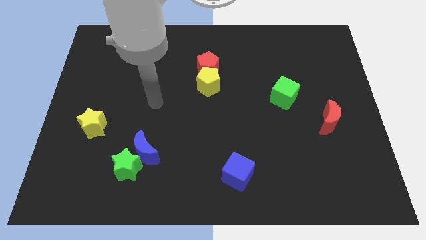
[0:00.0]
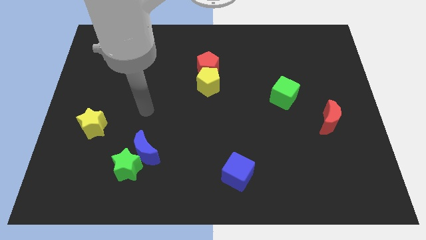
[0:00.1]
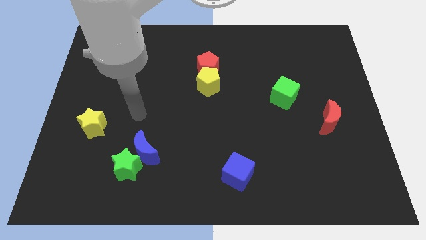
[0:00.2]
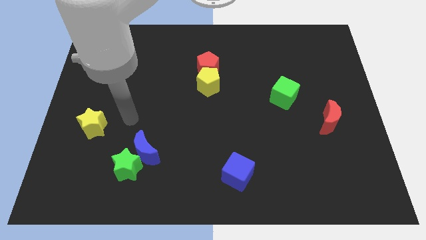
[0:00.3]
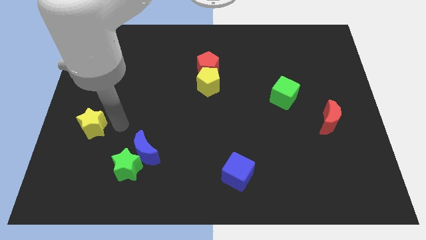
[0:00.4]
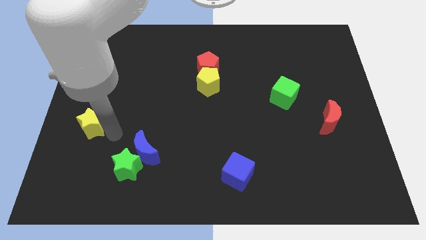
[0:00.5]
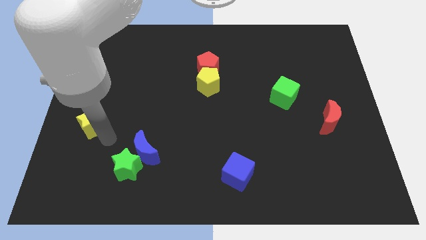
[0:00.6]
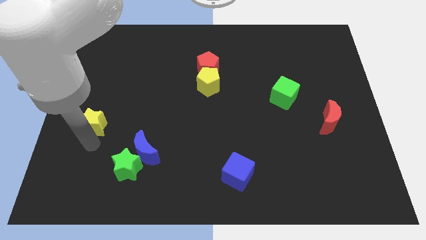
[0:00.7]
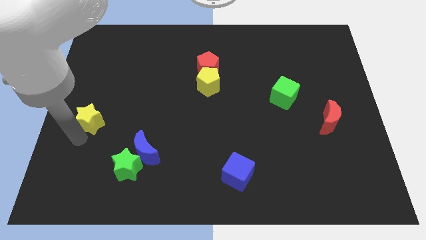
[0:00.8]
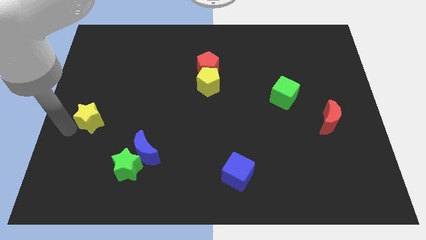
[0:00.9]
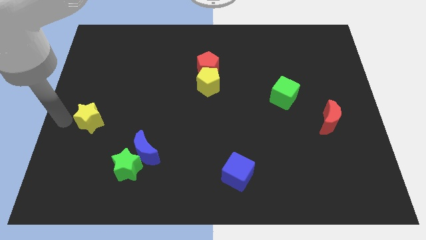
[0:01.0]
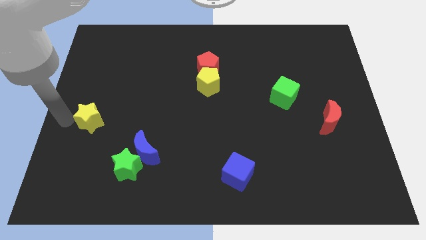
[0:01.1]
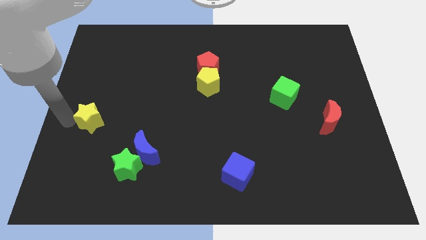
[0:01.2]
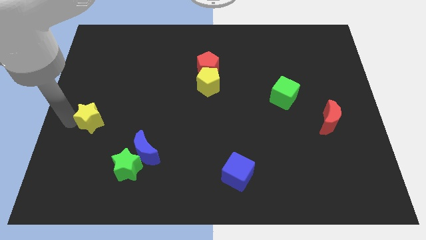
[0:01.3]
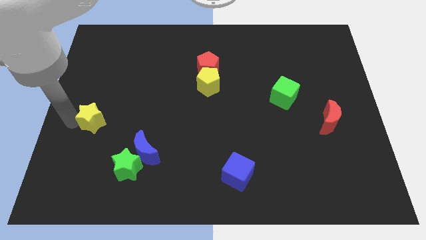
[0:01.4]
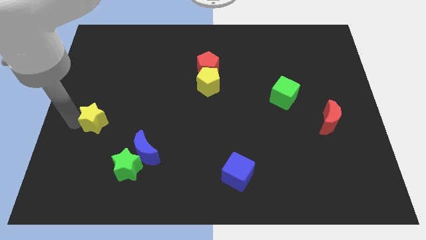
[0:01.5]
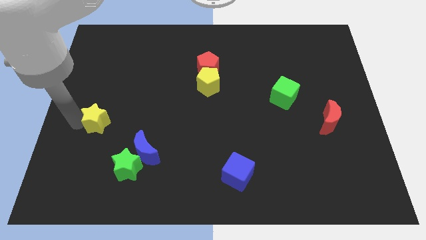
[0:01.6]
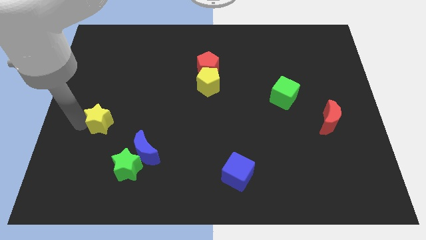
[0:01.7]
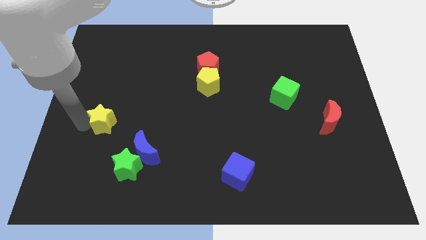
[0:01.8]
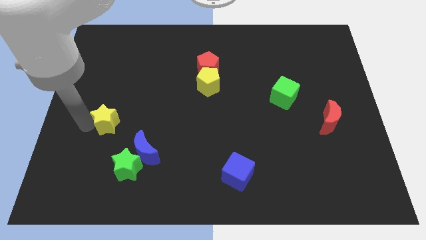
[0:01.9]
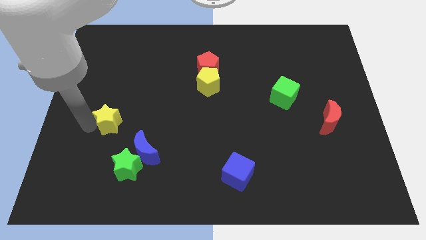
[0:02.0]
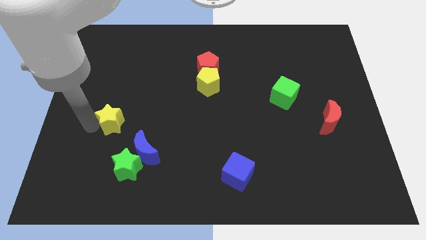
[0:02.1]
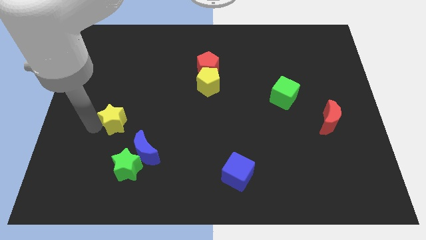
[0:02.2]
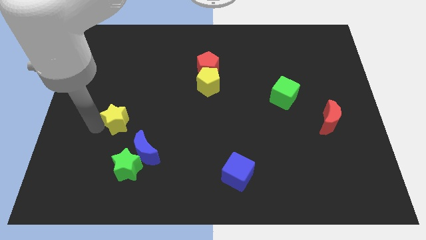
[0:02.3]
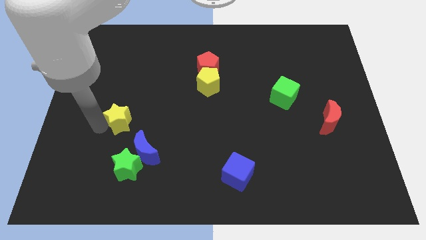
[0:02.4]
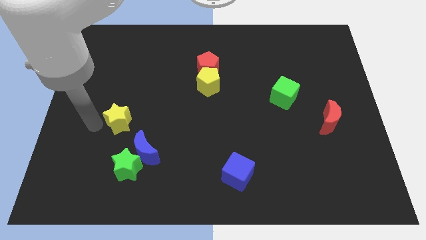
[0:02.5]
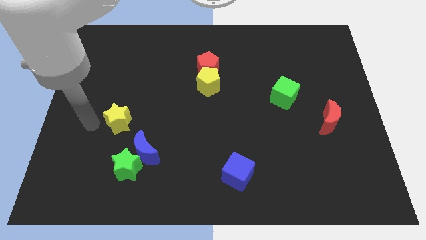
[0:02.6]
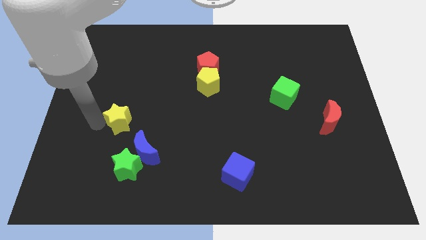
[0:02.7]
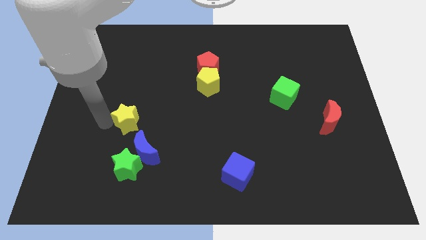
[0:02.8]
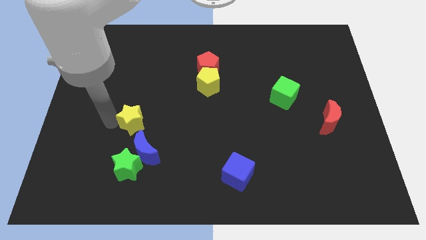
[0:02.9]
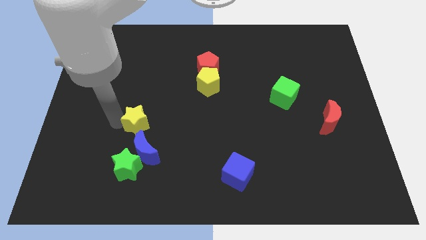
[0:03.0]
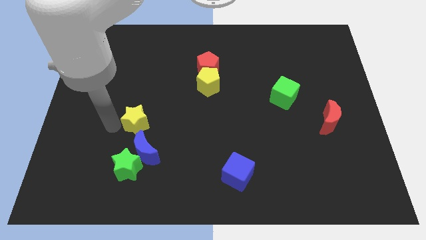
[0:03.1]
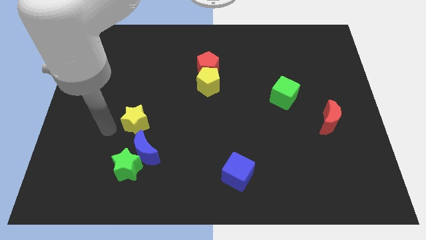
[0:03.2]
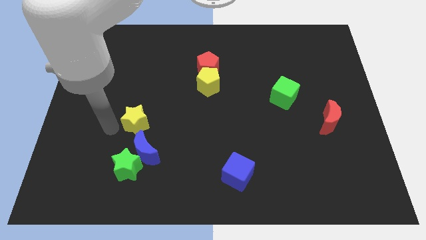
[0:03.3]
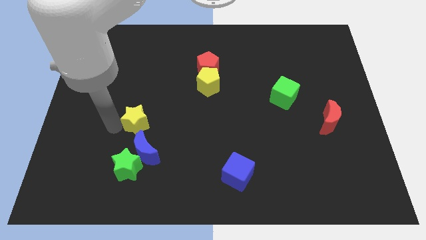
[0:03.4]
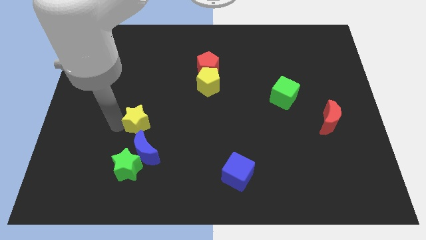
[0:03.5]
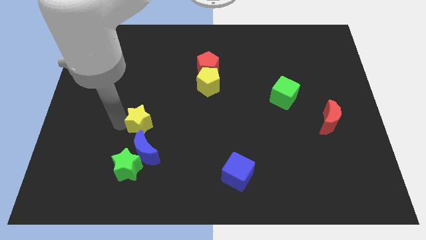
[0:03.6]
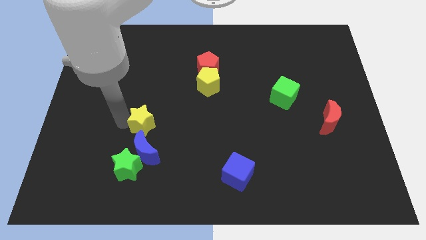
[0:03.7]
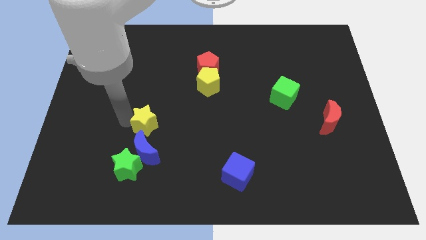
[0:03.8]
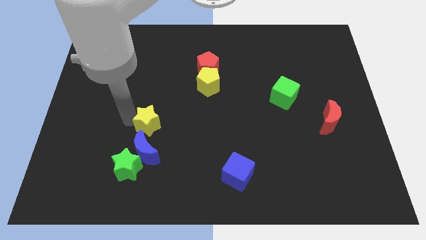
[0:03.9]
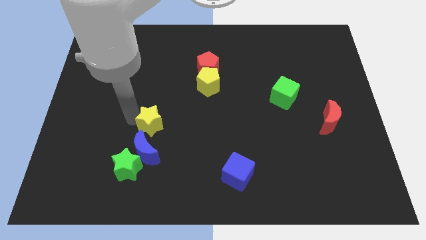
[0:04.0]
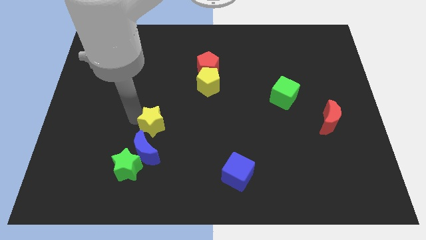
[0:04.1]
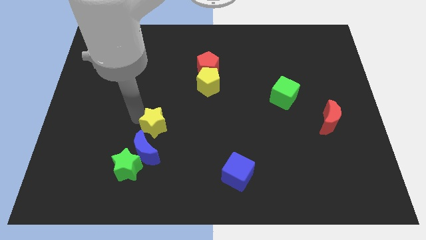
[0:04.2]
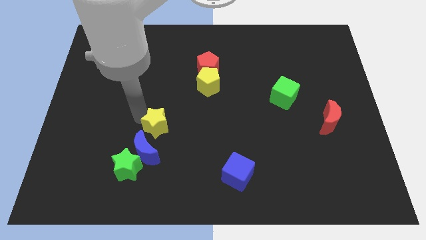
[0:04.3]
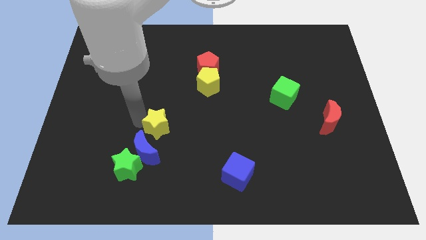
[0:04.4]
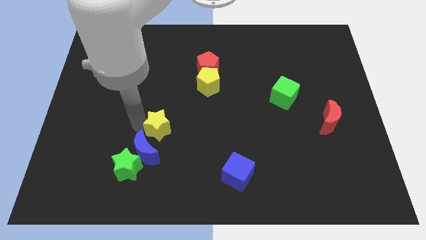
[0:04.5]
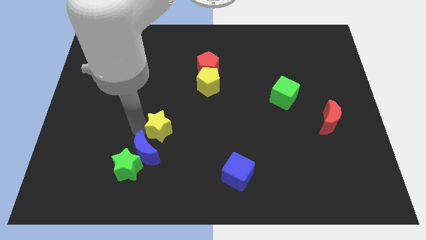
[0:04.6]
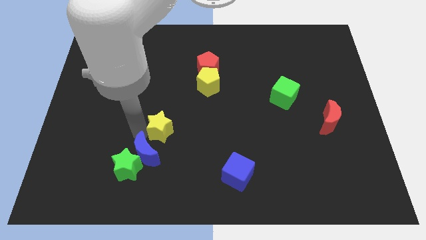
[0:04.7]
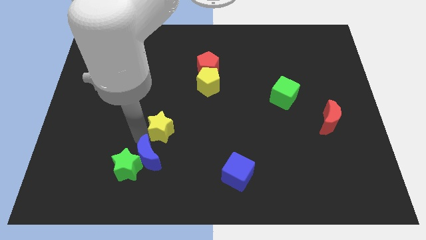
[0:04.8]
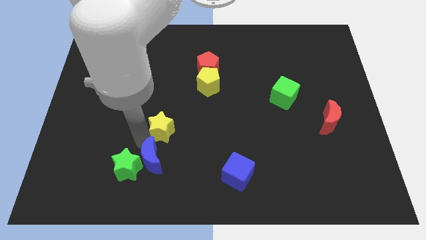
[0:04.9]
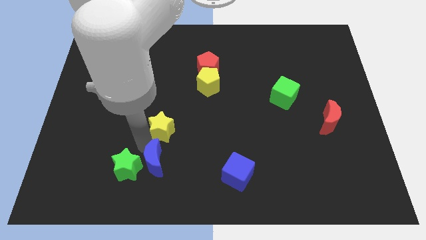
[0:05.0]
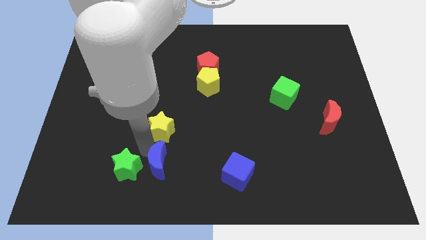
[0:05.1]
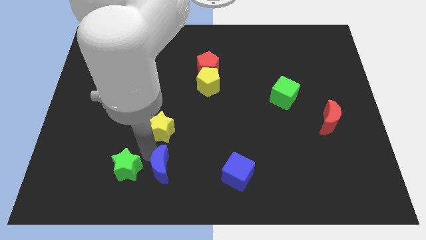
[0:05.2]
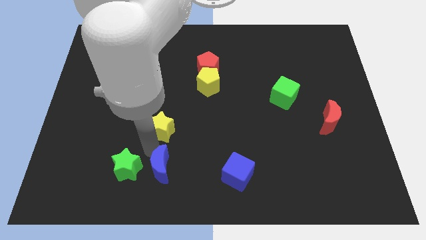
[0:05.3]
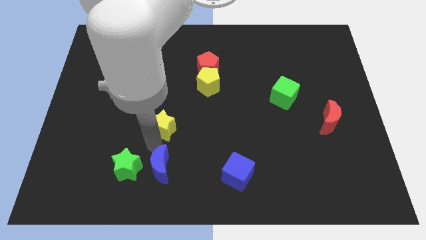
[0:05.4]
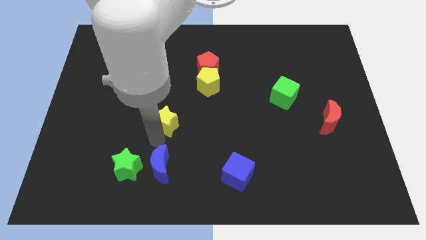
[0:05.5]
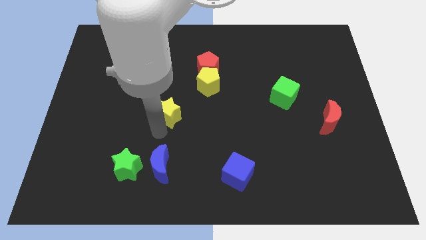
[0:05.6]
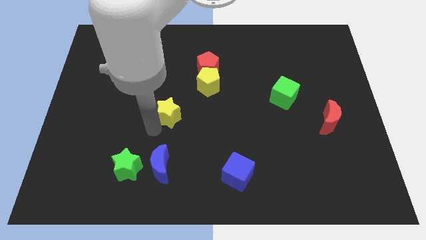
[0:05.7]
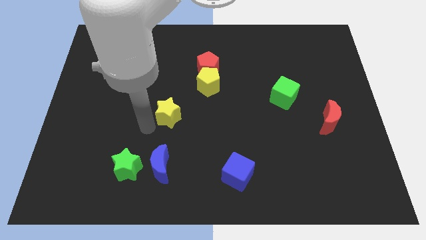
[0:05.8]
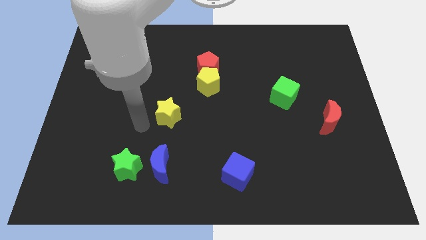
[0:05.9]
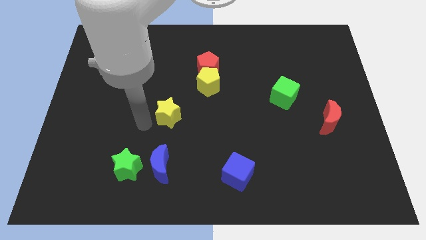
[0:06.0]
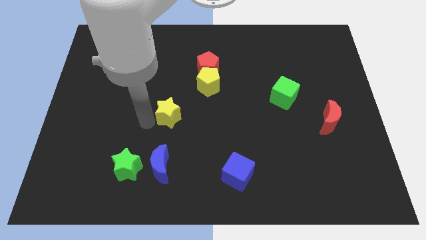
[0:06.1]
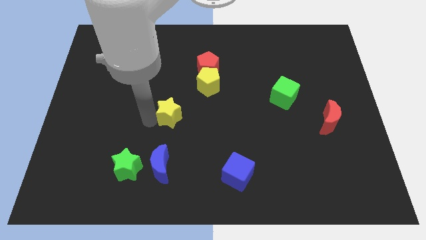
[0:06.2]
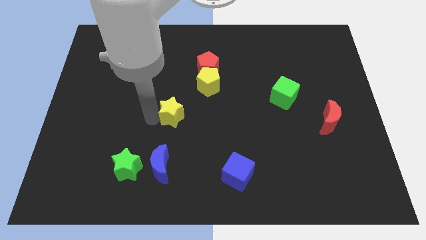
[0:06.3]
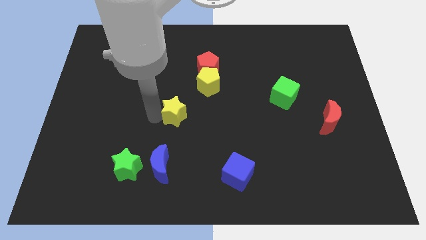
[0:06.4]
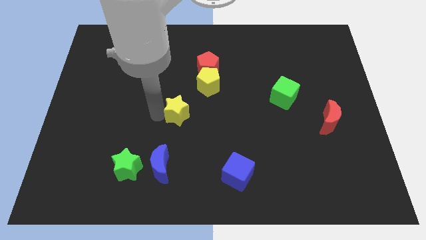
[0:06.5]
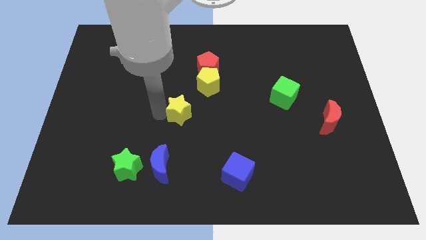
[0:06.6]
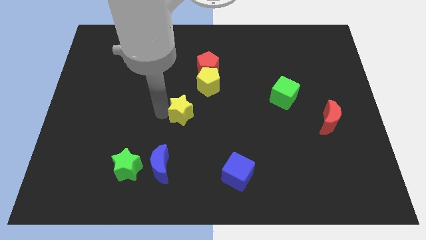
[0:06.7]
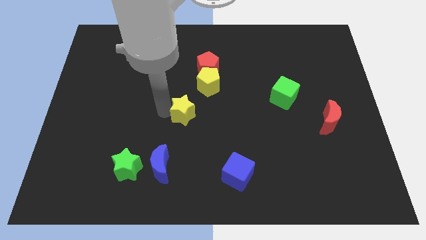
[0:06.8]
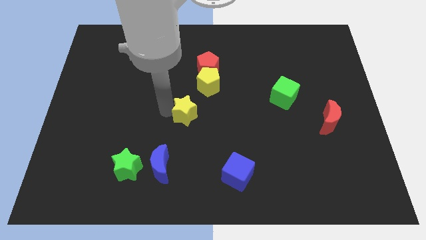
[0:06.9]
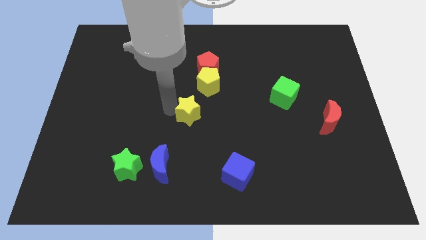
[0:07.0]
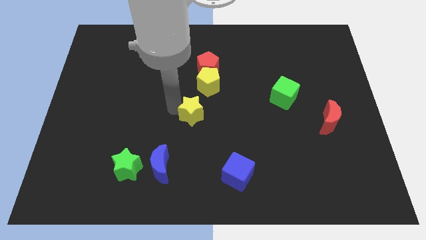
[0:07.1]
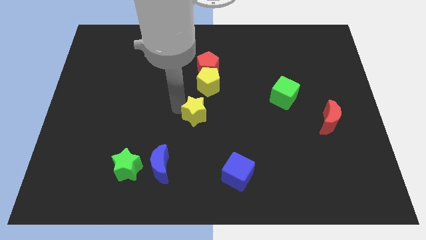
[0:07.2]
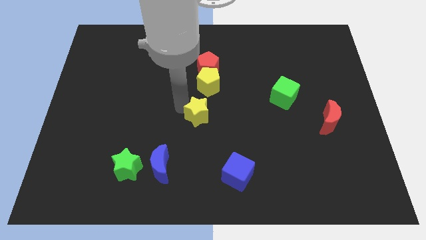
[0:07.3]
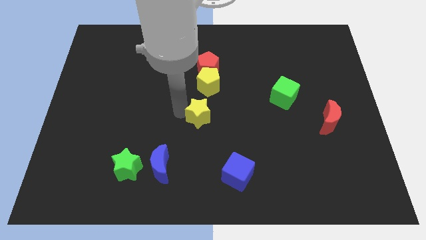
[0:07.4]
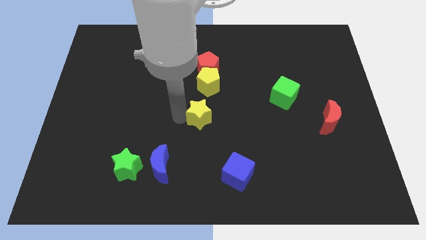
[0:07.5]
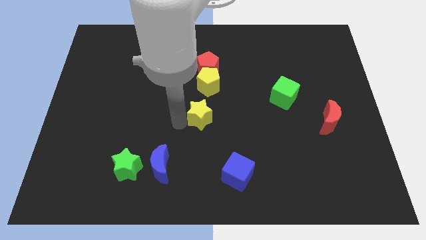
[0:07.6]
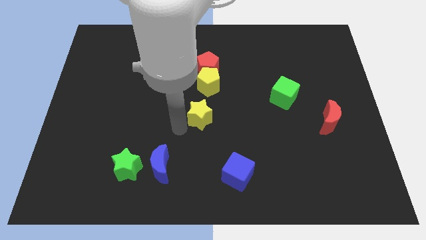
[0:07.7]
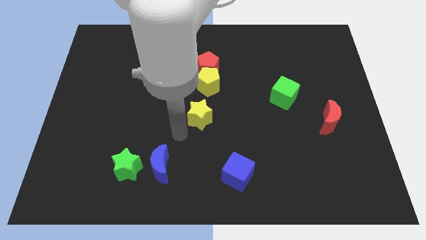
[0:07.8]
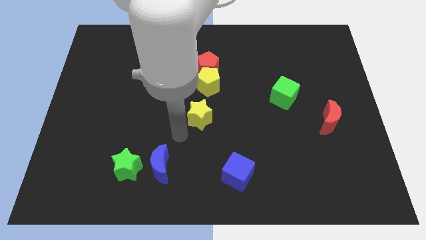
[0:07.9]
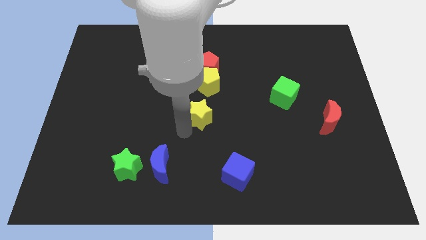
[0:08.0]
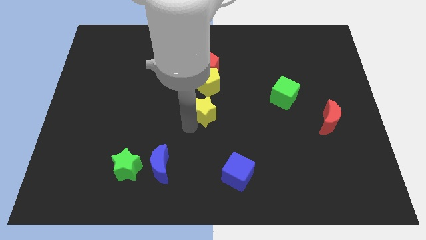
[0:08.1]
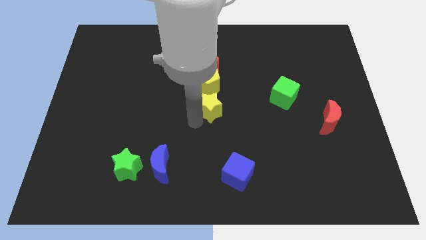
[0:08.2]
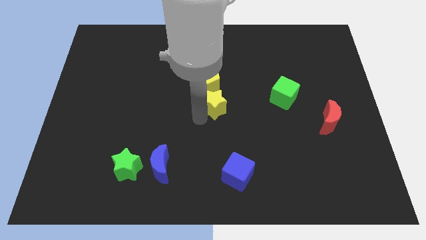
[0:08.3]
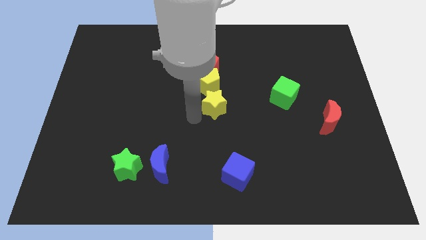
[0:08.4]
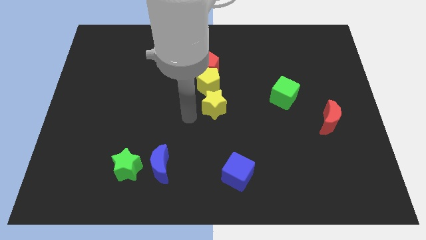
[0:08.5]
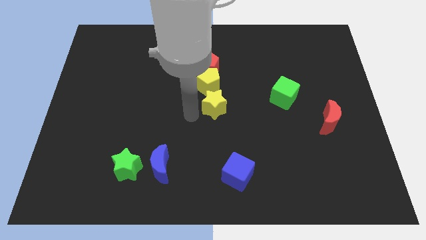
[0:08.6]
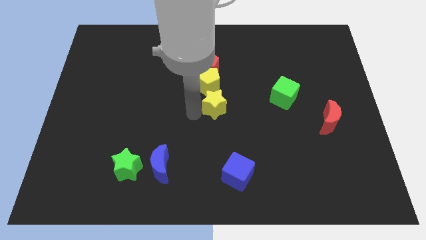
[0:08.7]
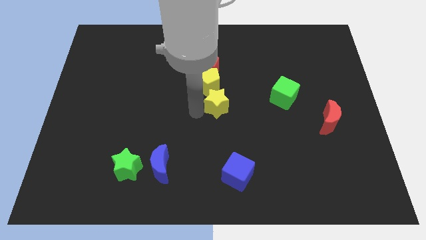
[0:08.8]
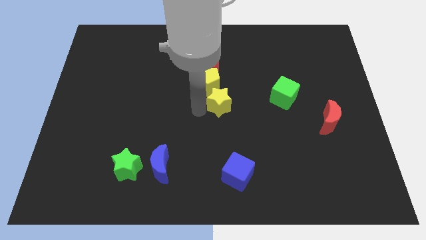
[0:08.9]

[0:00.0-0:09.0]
move the yellow star to the left side of the green cube
